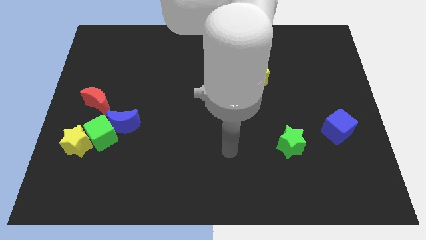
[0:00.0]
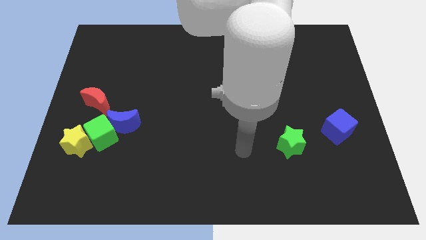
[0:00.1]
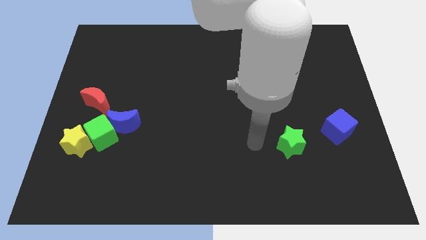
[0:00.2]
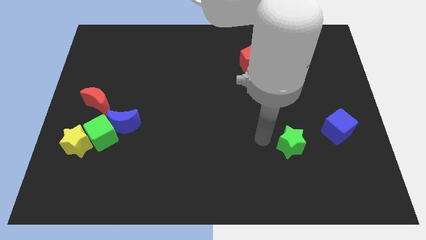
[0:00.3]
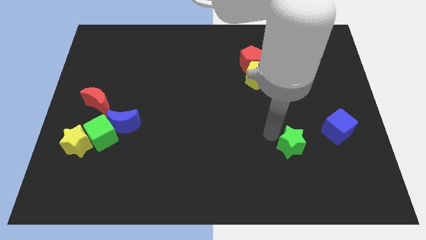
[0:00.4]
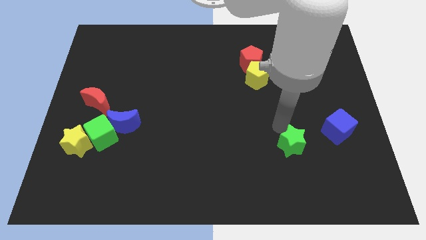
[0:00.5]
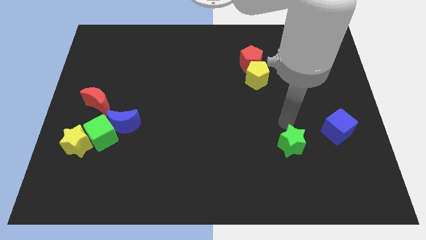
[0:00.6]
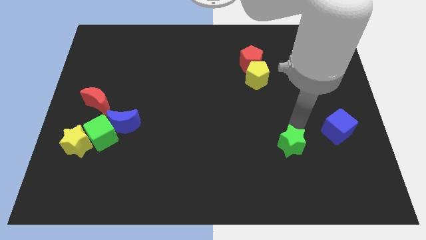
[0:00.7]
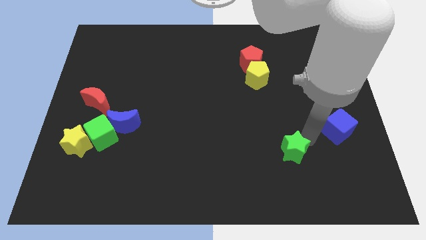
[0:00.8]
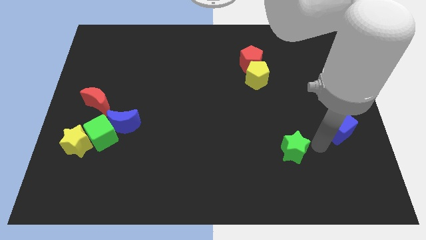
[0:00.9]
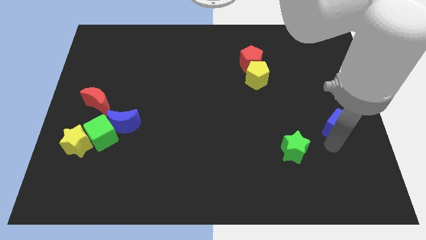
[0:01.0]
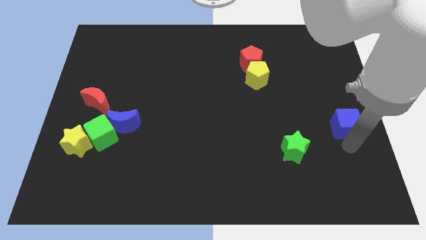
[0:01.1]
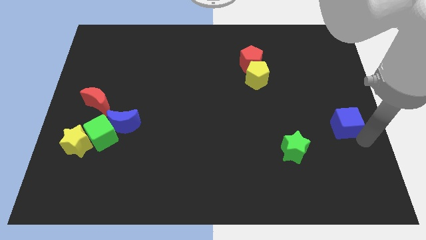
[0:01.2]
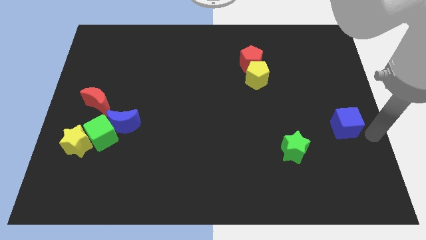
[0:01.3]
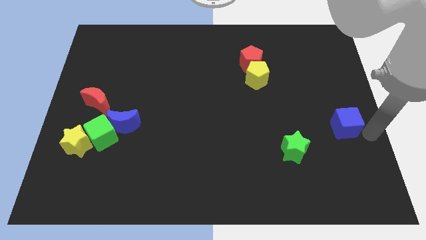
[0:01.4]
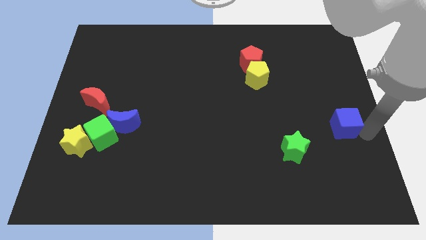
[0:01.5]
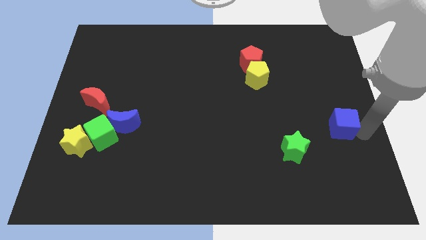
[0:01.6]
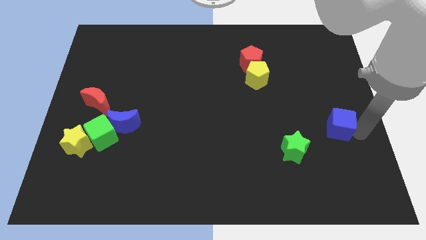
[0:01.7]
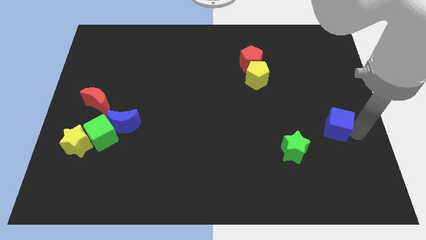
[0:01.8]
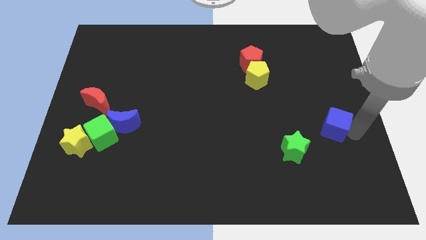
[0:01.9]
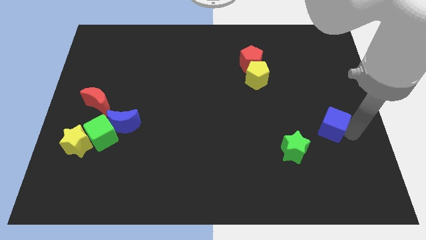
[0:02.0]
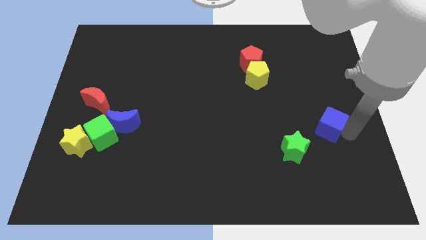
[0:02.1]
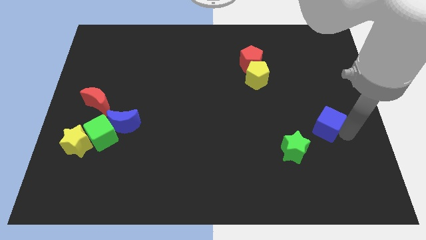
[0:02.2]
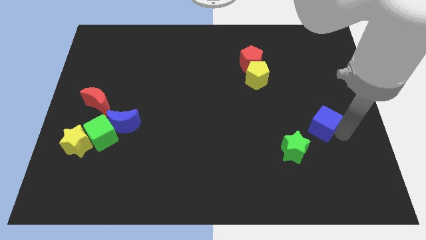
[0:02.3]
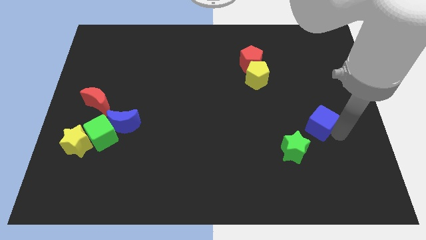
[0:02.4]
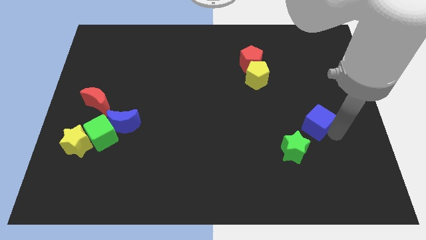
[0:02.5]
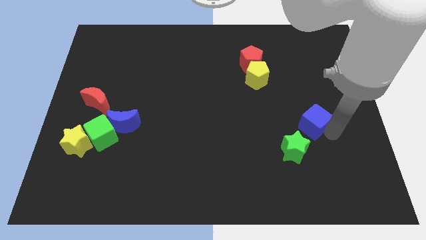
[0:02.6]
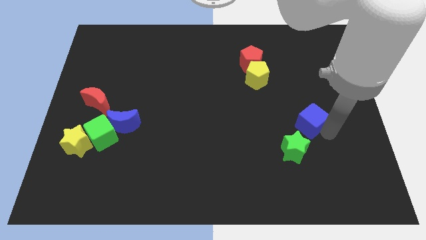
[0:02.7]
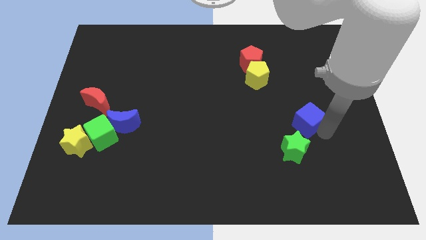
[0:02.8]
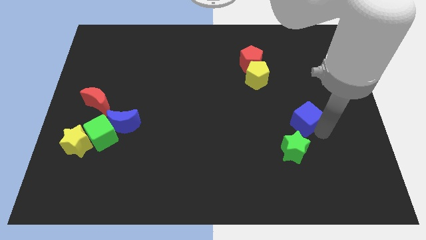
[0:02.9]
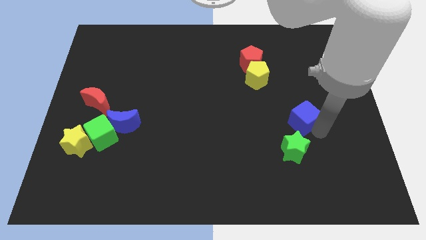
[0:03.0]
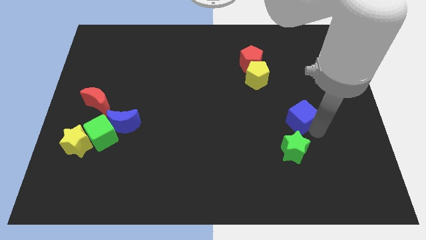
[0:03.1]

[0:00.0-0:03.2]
slightly slide the blue cube diagonally up and to the left

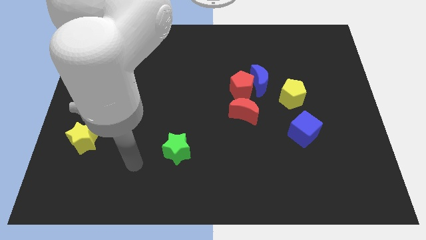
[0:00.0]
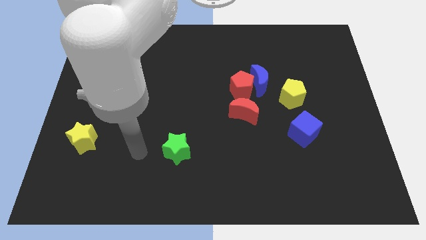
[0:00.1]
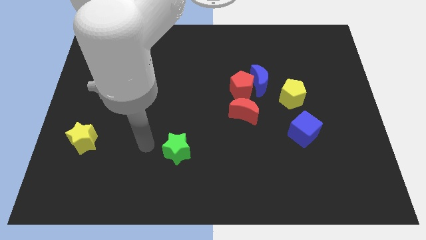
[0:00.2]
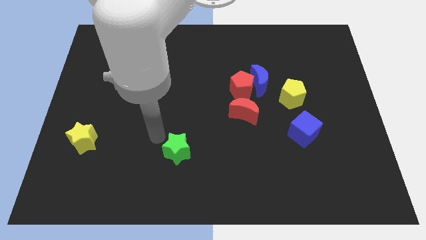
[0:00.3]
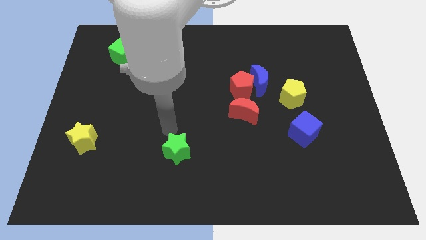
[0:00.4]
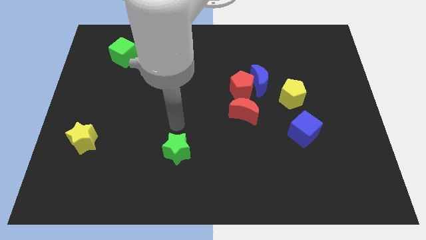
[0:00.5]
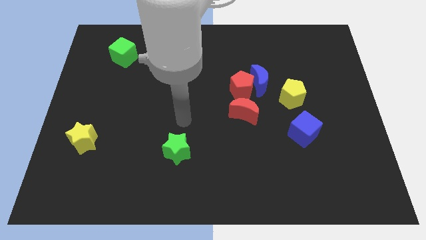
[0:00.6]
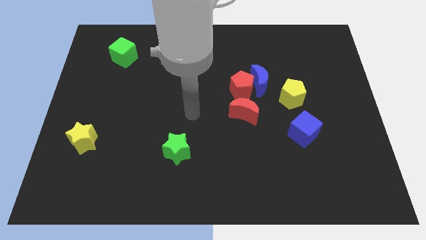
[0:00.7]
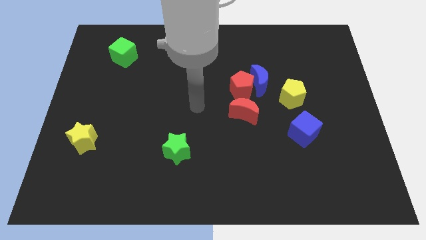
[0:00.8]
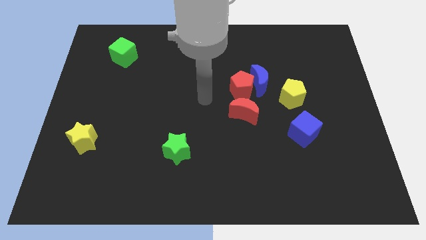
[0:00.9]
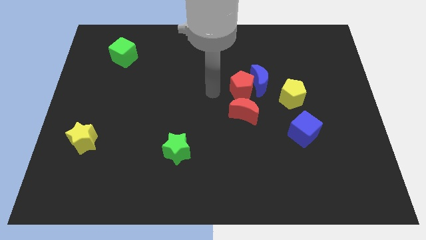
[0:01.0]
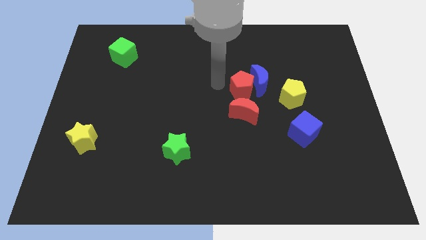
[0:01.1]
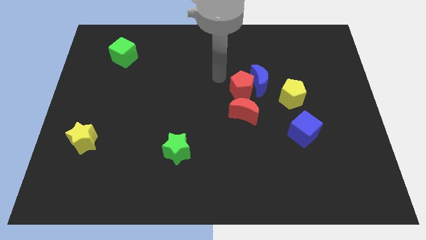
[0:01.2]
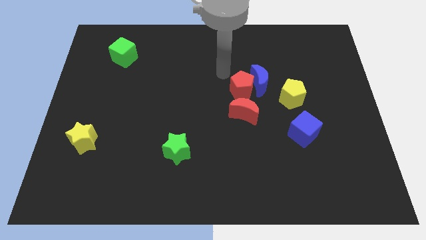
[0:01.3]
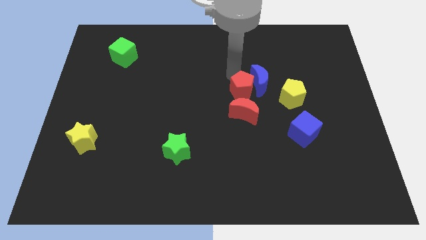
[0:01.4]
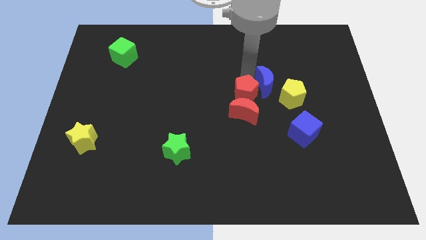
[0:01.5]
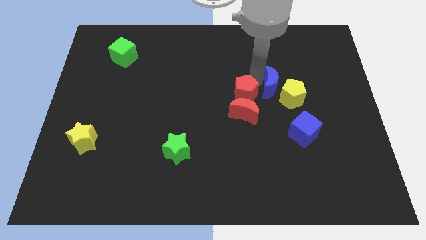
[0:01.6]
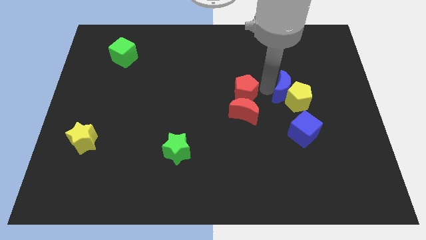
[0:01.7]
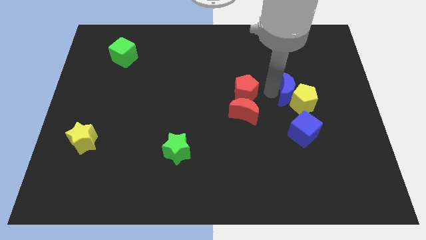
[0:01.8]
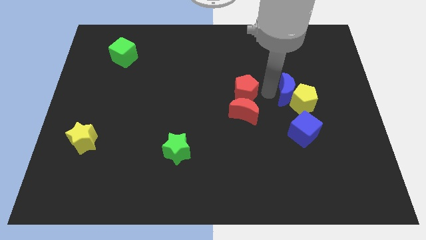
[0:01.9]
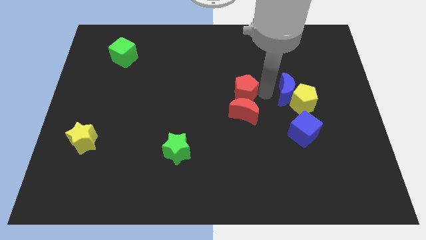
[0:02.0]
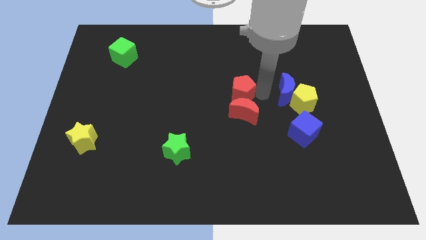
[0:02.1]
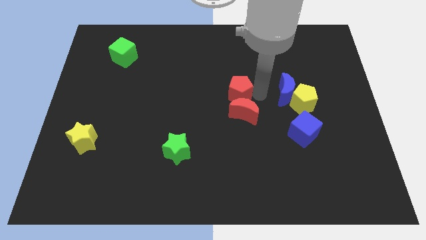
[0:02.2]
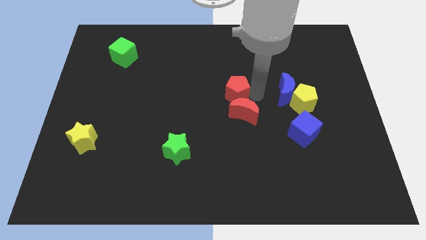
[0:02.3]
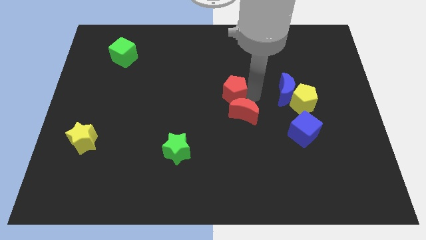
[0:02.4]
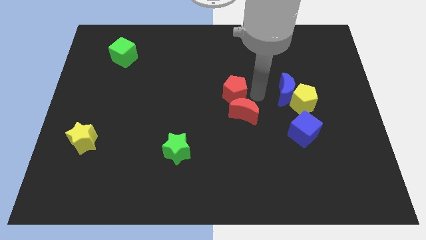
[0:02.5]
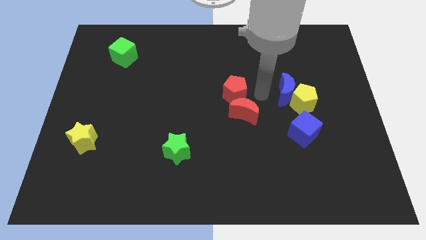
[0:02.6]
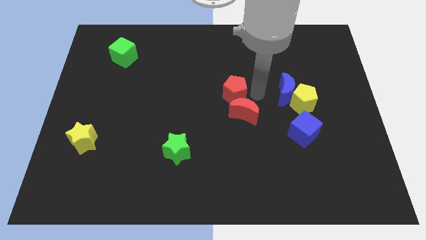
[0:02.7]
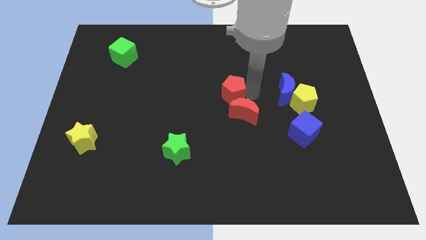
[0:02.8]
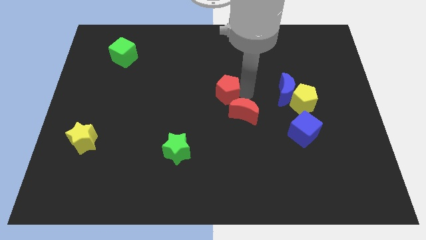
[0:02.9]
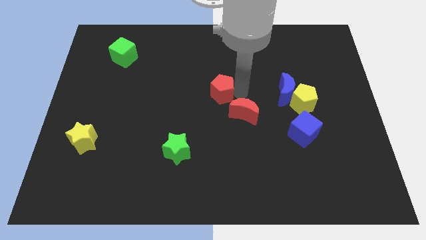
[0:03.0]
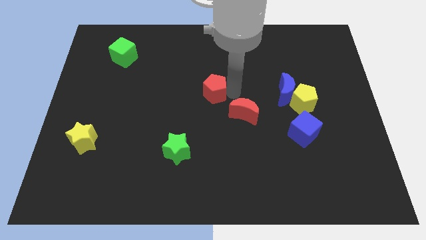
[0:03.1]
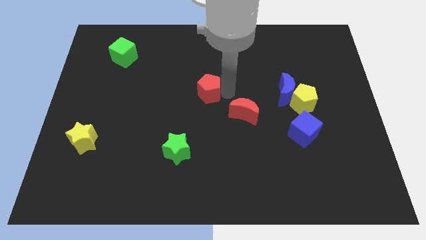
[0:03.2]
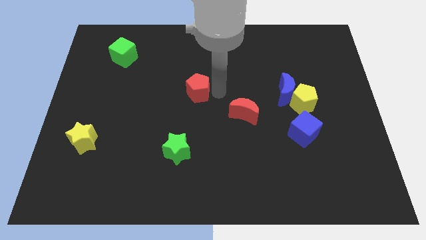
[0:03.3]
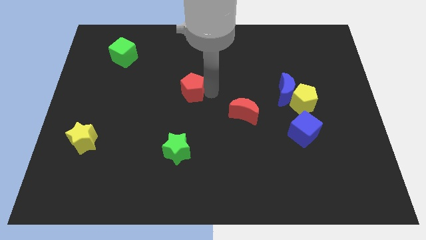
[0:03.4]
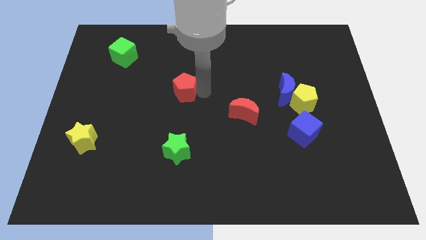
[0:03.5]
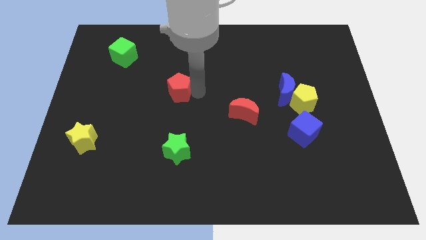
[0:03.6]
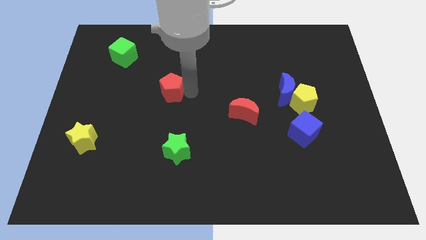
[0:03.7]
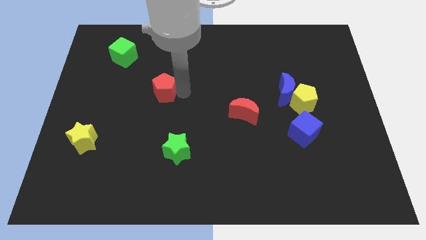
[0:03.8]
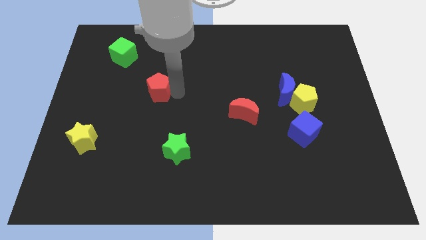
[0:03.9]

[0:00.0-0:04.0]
slide the red pentagon left

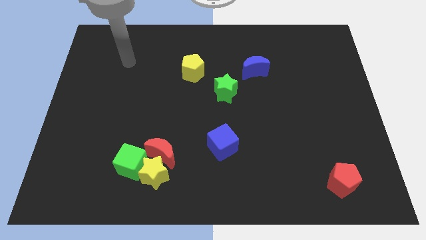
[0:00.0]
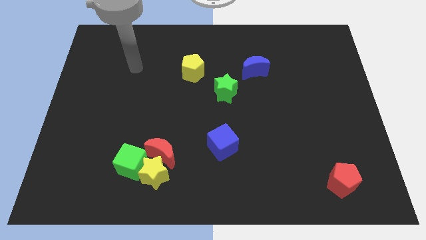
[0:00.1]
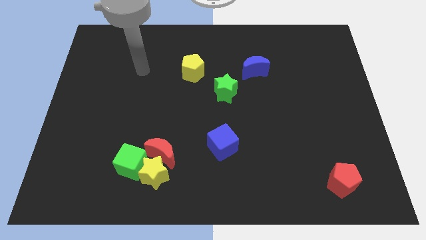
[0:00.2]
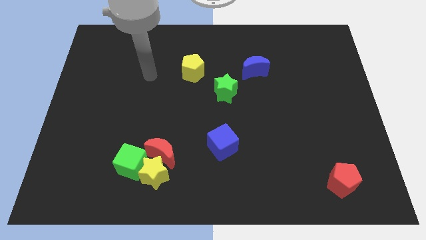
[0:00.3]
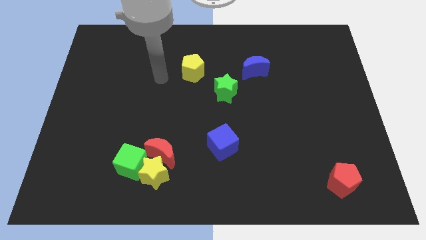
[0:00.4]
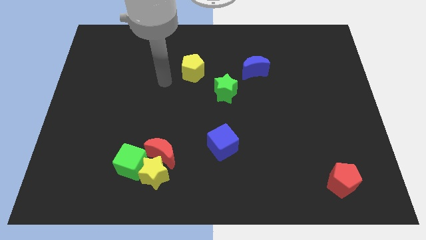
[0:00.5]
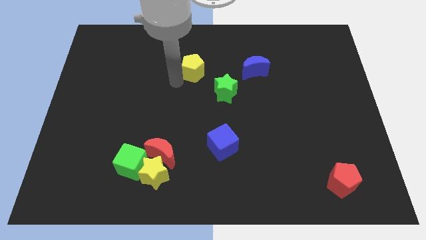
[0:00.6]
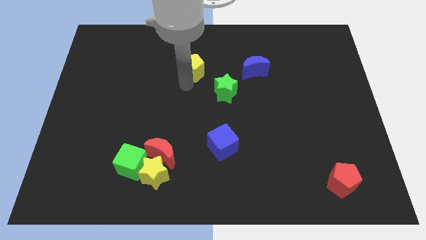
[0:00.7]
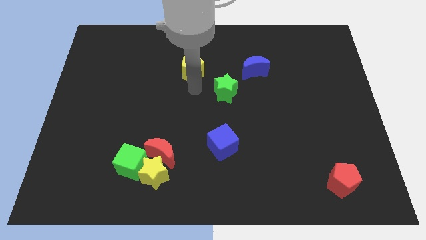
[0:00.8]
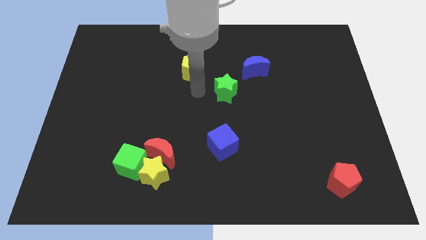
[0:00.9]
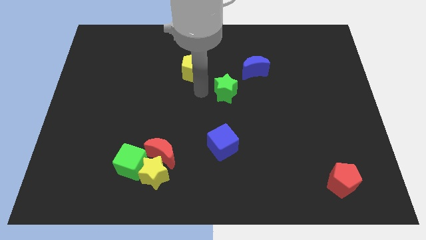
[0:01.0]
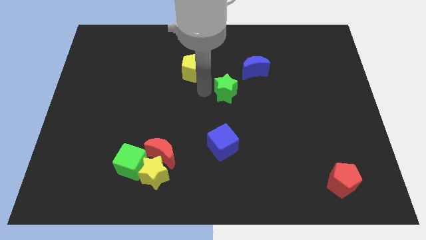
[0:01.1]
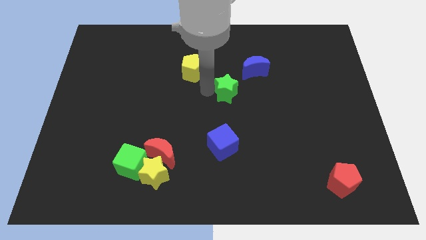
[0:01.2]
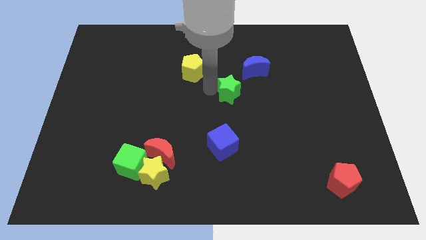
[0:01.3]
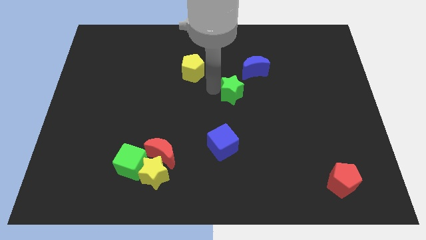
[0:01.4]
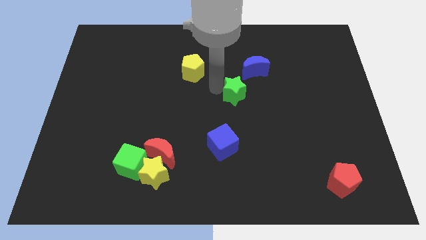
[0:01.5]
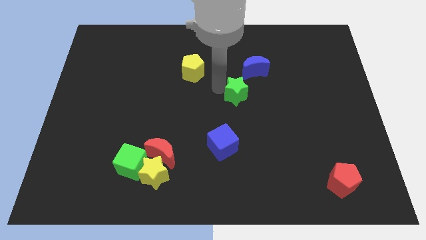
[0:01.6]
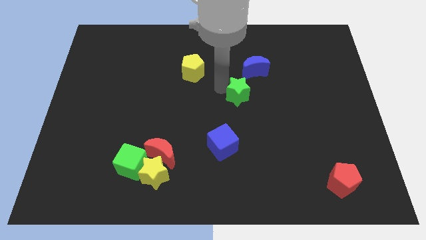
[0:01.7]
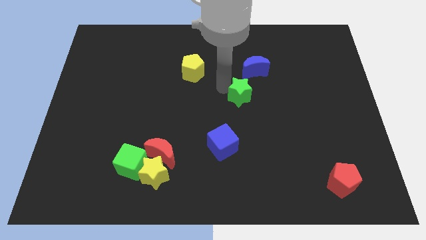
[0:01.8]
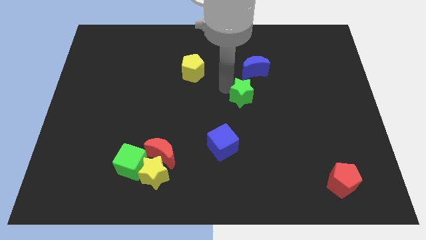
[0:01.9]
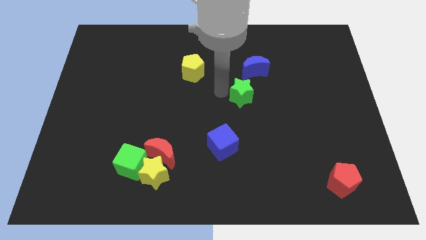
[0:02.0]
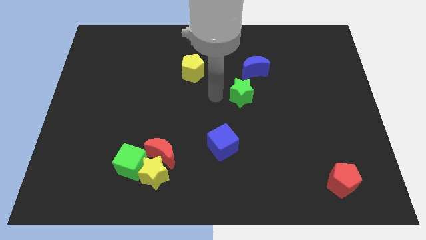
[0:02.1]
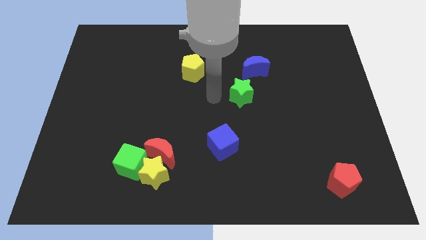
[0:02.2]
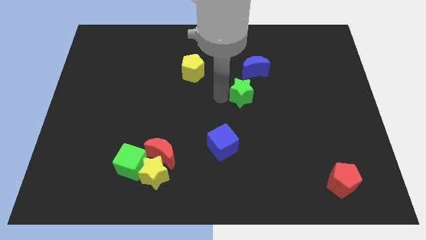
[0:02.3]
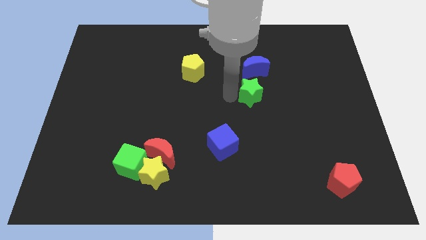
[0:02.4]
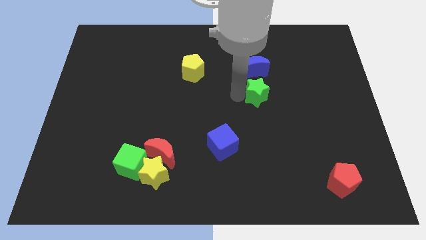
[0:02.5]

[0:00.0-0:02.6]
slightly push the green star right
